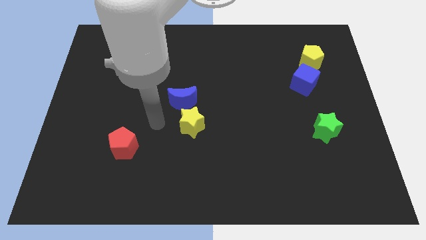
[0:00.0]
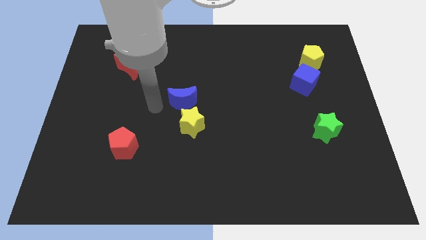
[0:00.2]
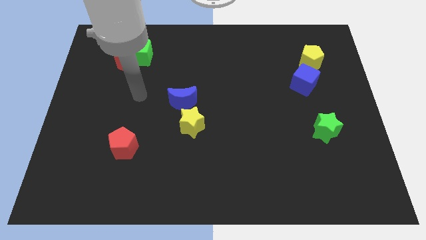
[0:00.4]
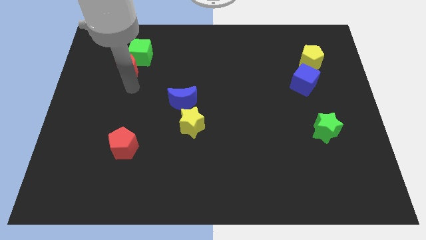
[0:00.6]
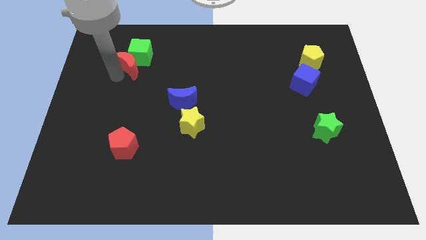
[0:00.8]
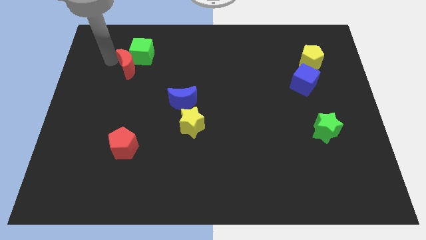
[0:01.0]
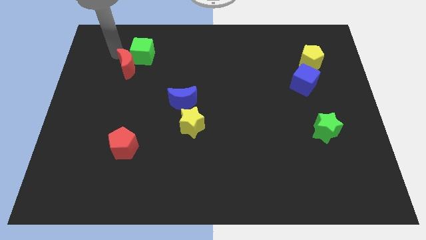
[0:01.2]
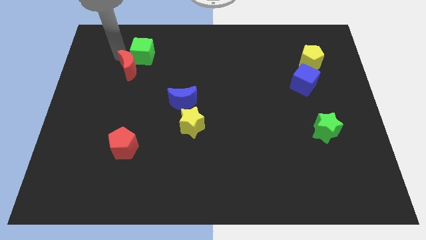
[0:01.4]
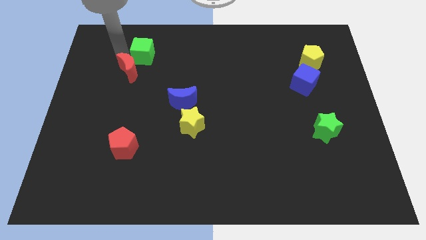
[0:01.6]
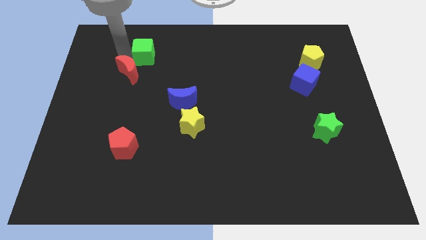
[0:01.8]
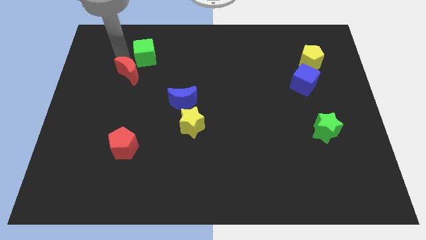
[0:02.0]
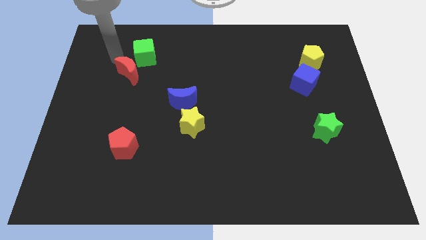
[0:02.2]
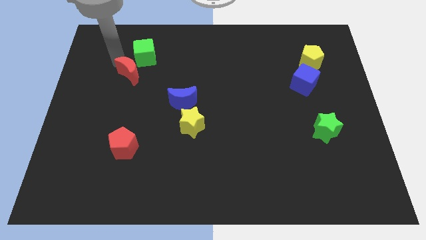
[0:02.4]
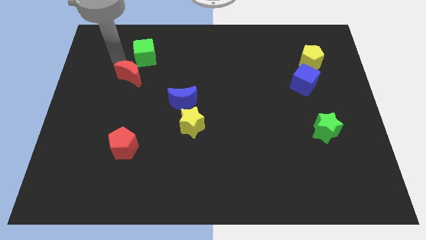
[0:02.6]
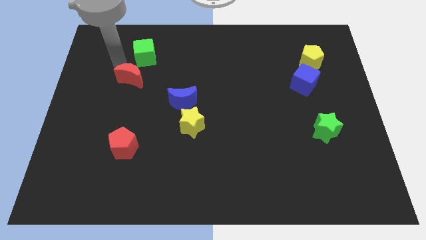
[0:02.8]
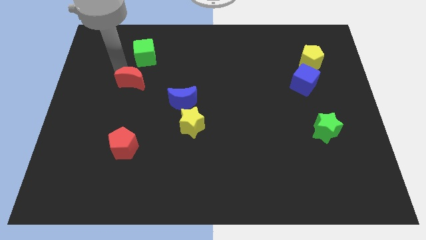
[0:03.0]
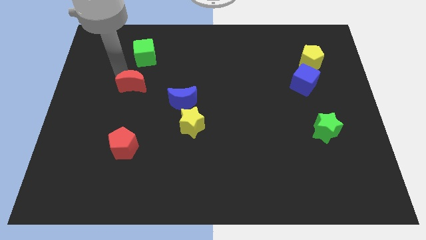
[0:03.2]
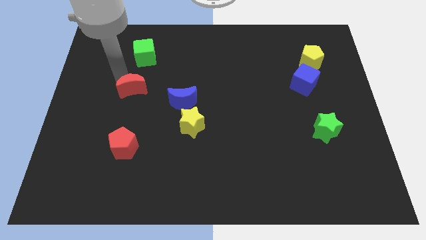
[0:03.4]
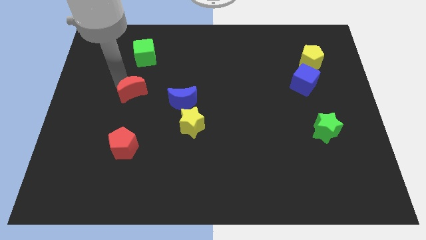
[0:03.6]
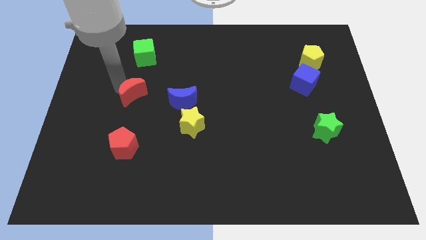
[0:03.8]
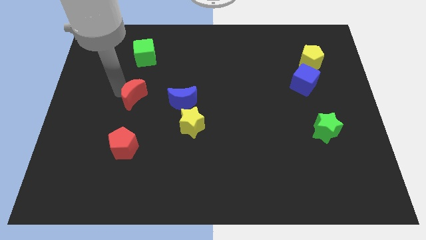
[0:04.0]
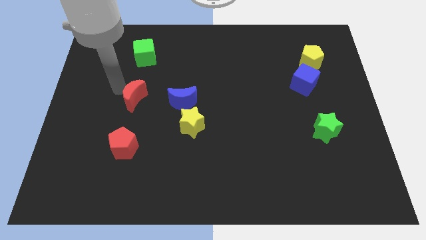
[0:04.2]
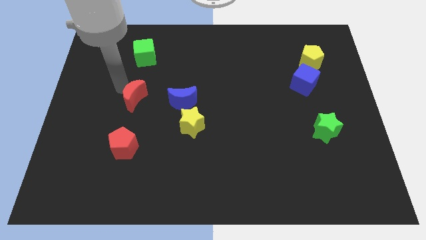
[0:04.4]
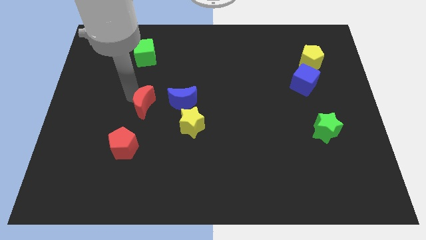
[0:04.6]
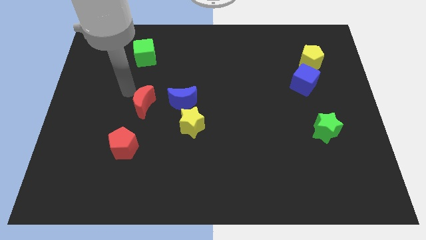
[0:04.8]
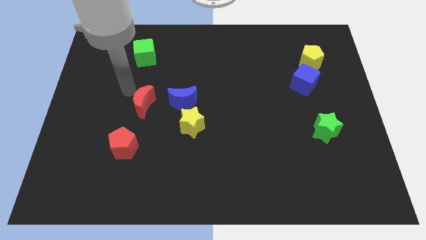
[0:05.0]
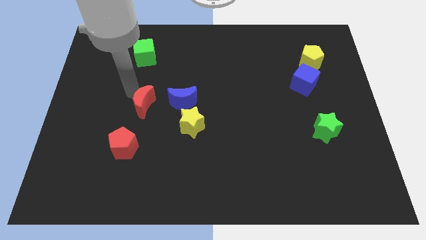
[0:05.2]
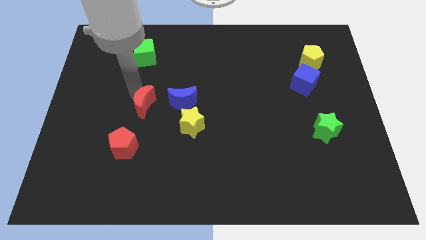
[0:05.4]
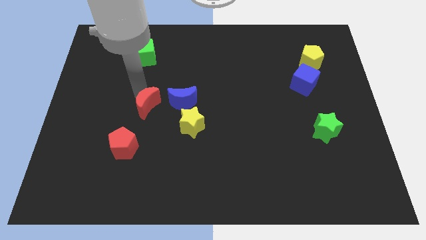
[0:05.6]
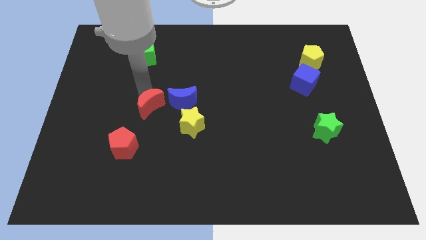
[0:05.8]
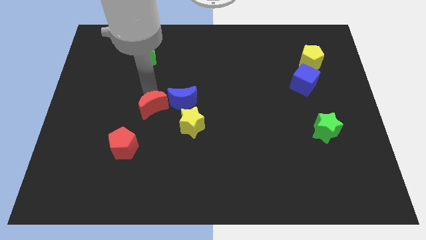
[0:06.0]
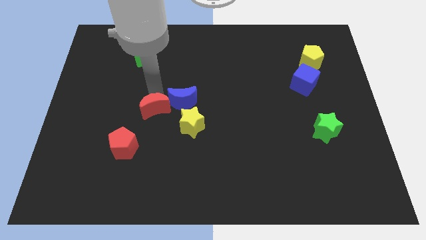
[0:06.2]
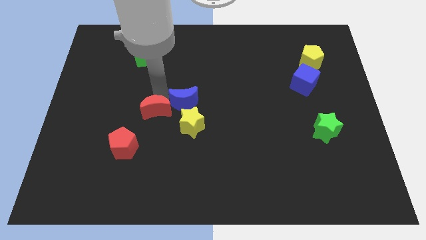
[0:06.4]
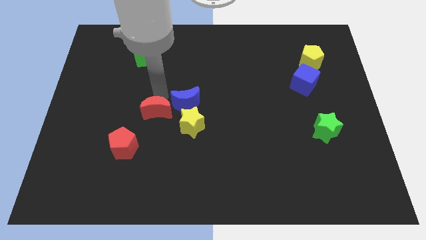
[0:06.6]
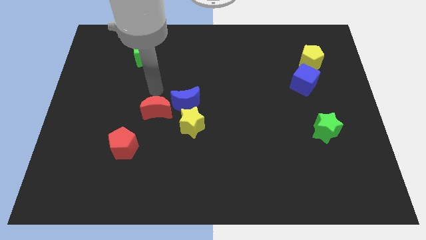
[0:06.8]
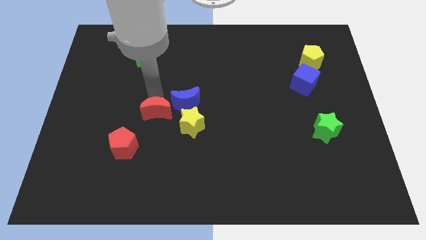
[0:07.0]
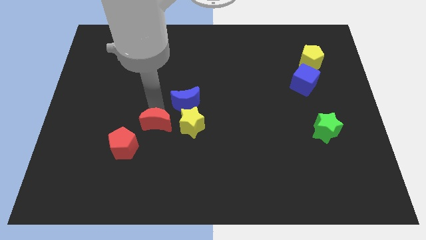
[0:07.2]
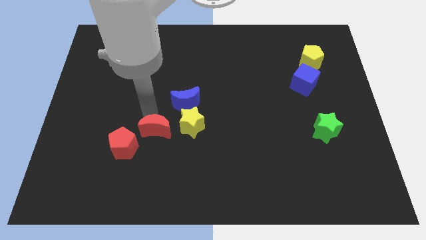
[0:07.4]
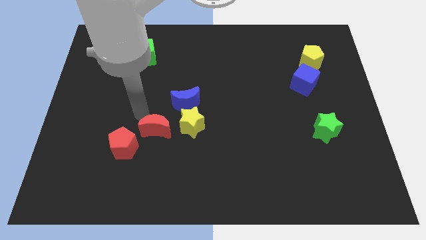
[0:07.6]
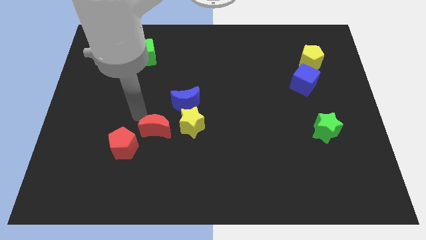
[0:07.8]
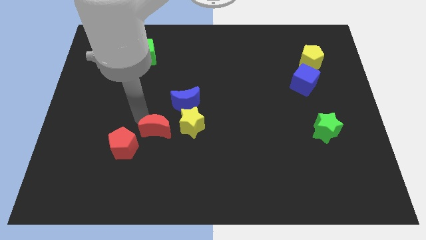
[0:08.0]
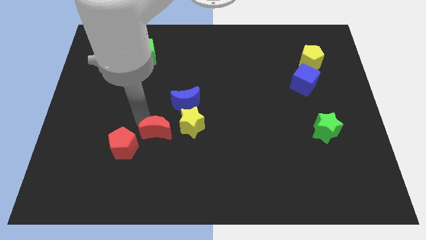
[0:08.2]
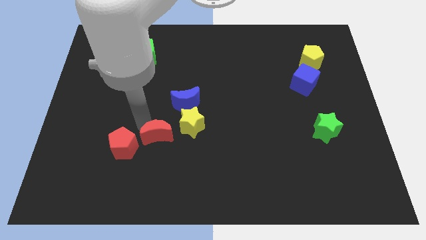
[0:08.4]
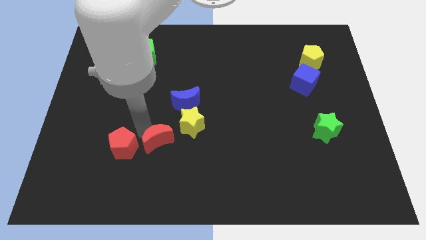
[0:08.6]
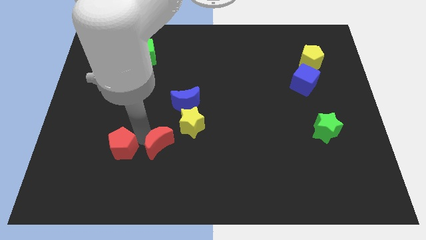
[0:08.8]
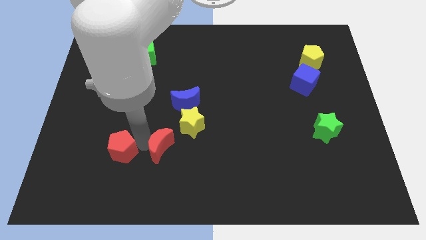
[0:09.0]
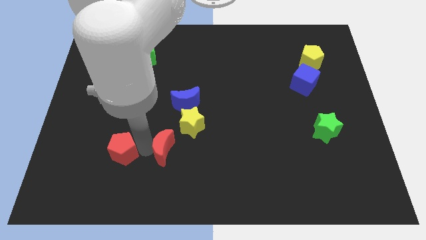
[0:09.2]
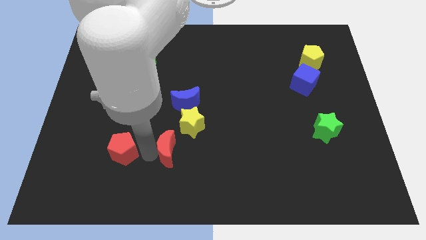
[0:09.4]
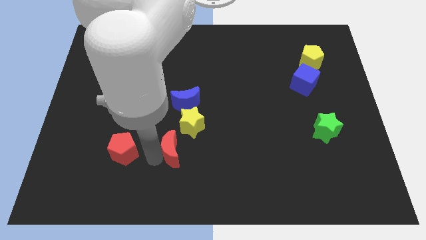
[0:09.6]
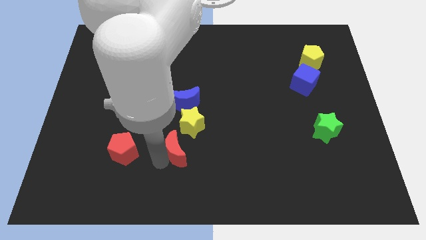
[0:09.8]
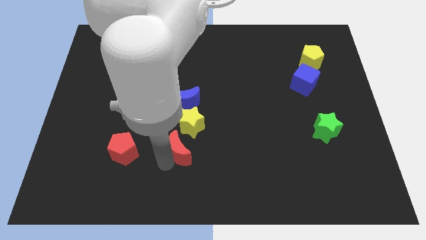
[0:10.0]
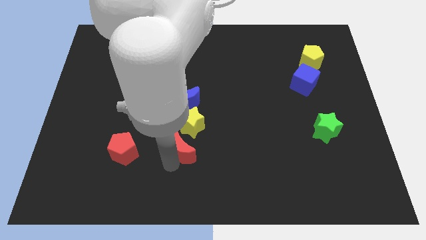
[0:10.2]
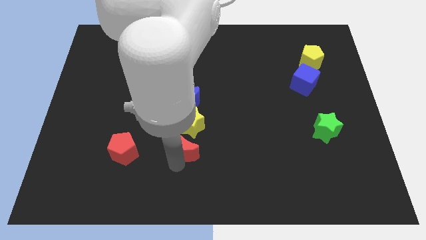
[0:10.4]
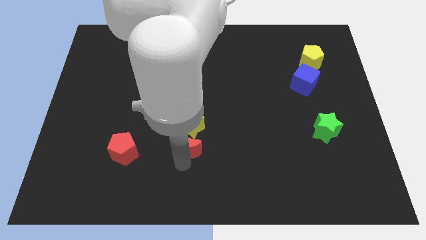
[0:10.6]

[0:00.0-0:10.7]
slide the red moon to the bottom right of the yellow star

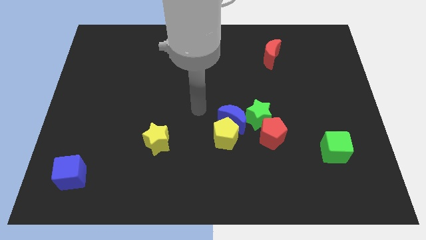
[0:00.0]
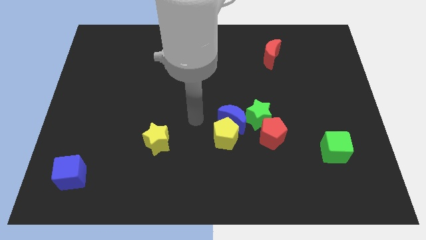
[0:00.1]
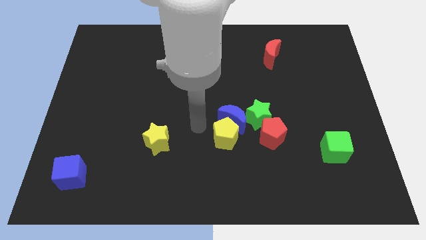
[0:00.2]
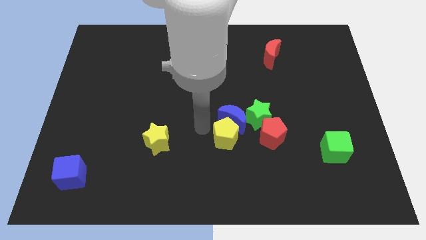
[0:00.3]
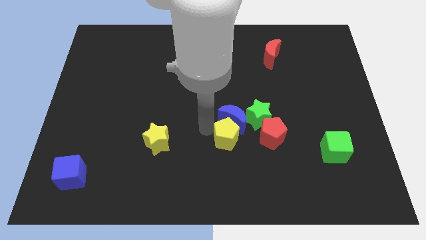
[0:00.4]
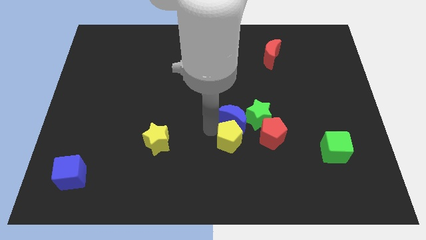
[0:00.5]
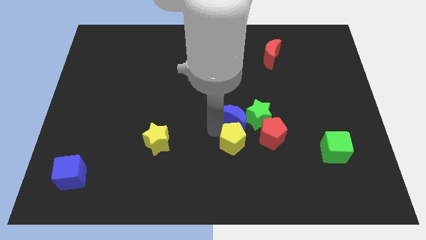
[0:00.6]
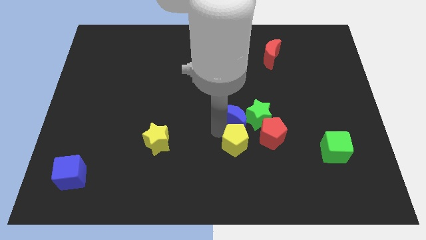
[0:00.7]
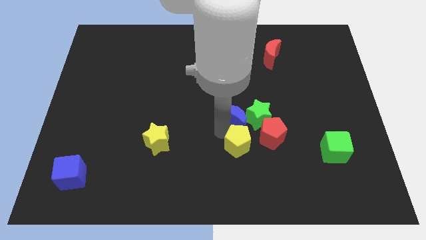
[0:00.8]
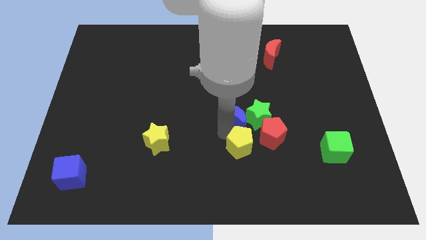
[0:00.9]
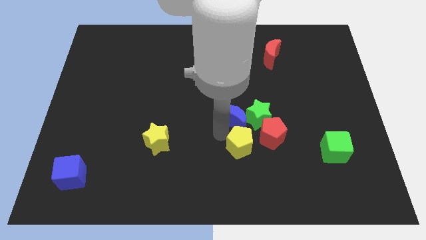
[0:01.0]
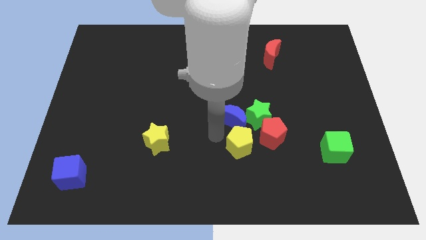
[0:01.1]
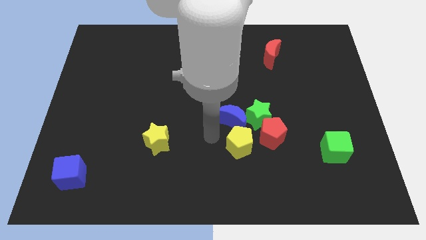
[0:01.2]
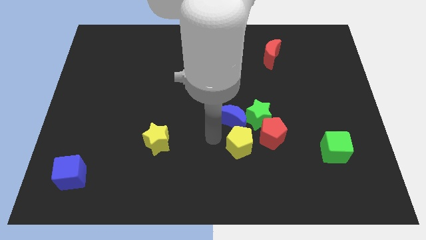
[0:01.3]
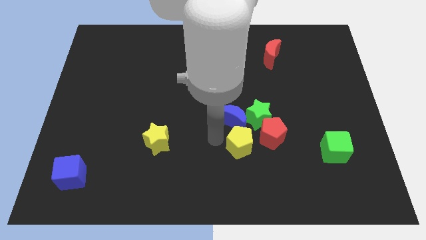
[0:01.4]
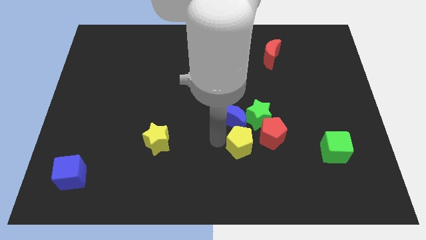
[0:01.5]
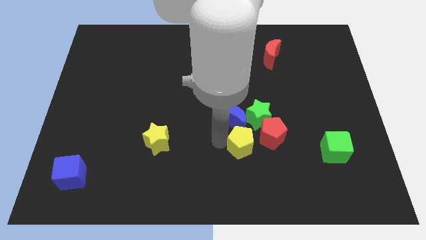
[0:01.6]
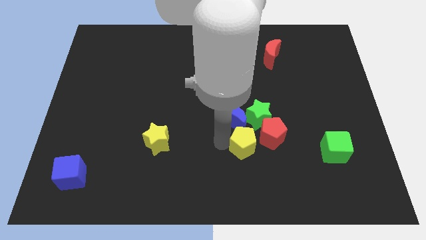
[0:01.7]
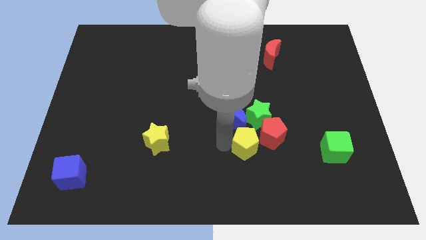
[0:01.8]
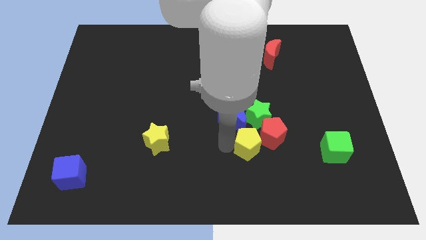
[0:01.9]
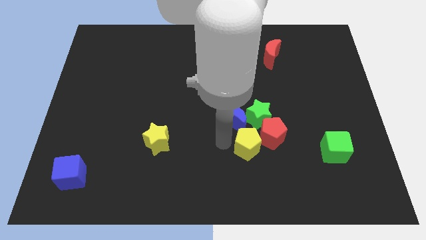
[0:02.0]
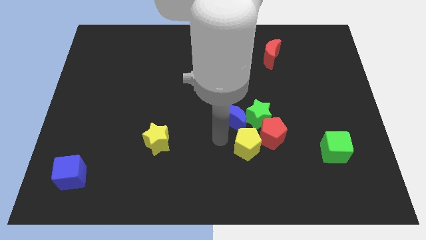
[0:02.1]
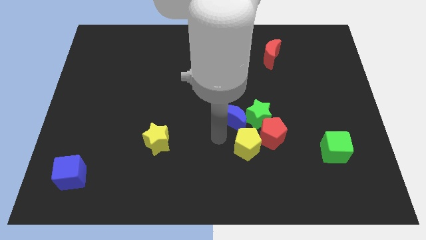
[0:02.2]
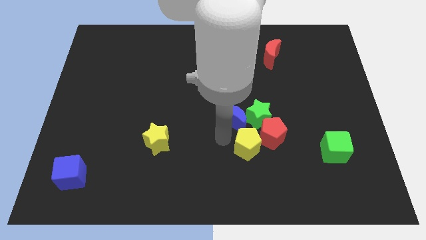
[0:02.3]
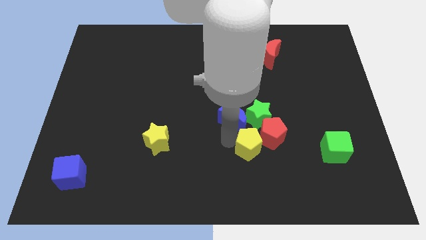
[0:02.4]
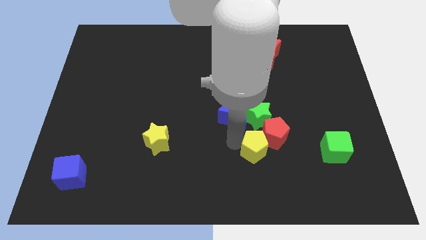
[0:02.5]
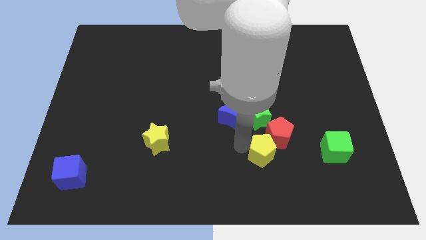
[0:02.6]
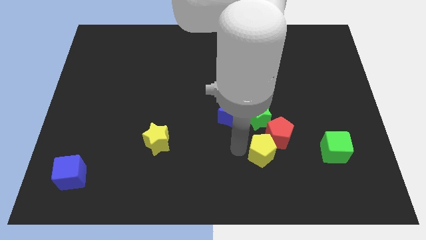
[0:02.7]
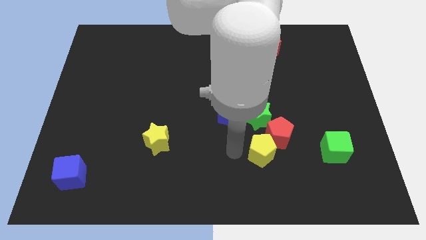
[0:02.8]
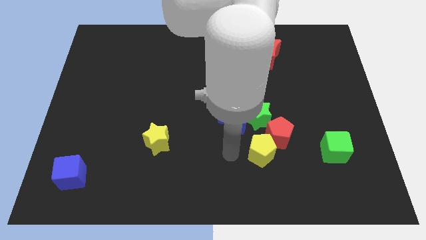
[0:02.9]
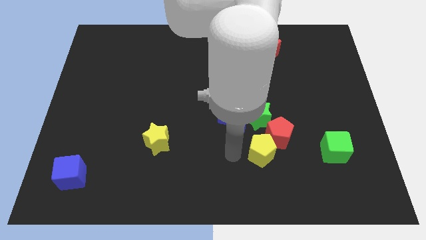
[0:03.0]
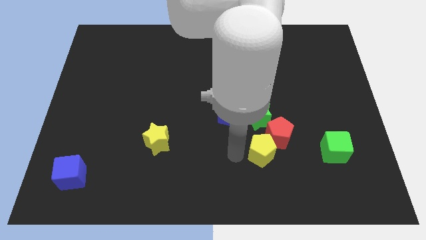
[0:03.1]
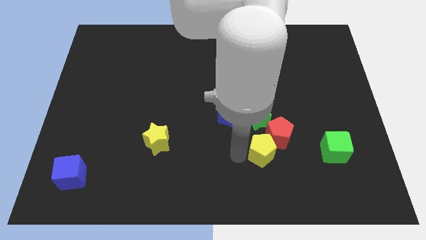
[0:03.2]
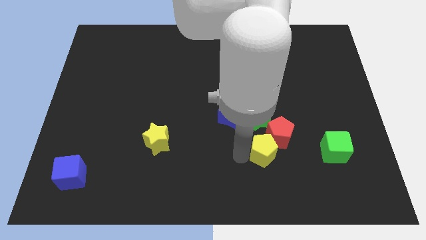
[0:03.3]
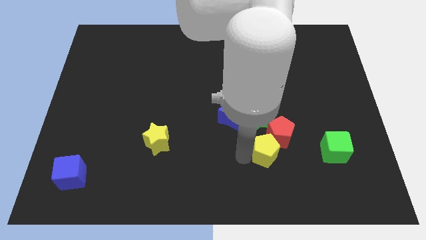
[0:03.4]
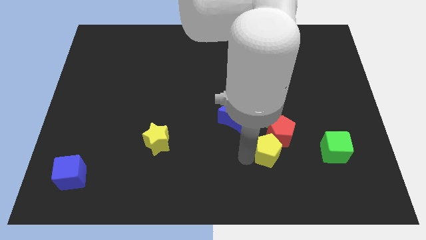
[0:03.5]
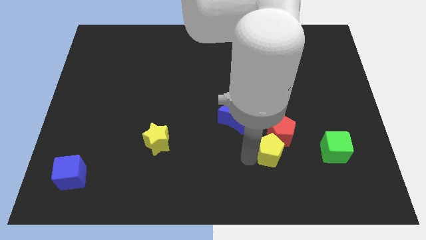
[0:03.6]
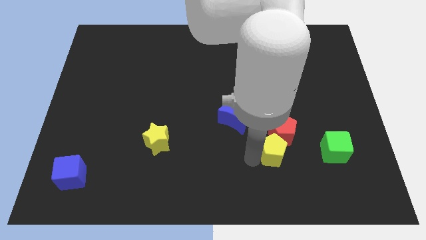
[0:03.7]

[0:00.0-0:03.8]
put the yellow pentagon to the bottom right of the green star
